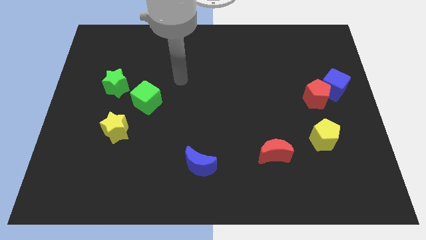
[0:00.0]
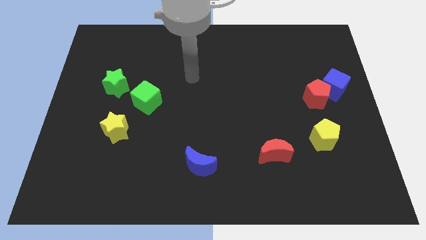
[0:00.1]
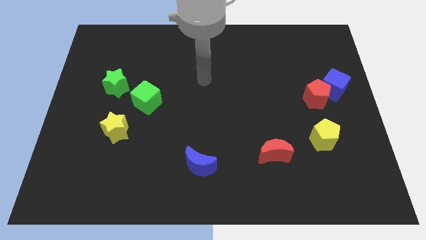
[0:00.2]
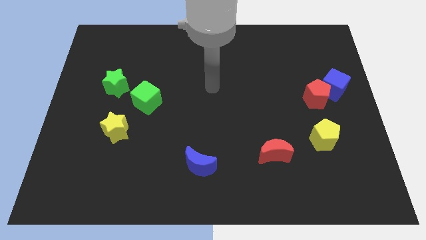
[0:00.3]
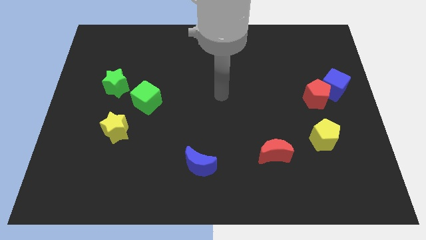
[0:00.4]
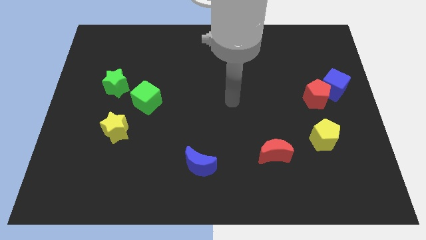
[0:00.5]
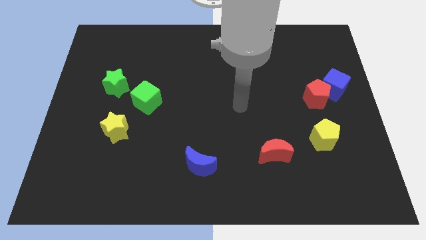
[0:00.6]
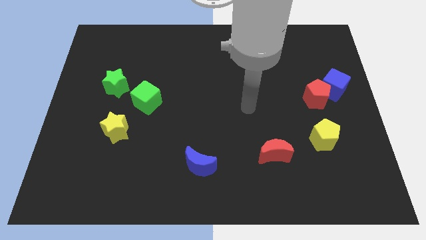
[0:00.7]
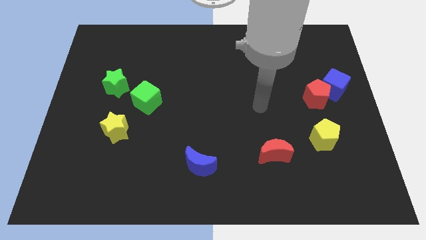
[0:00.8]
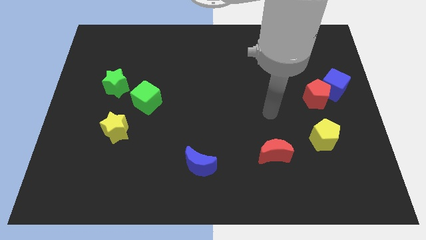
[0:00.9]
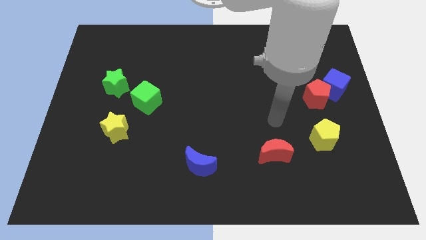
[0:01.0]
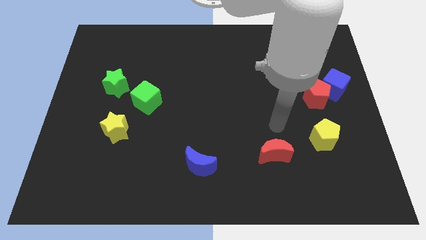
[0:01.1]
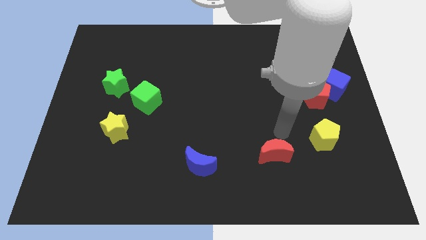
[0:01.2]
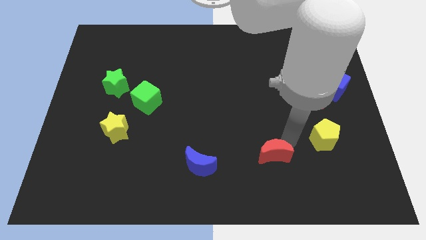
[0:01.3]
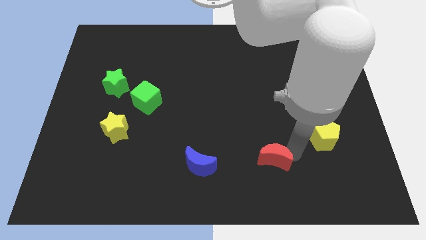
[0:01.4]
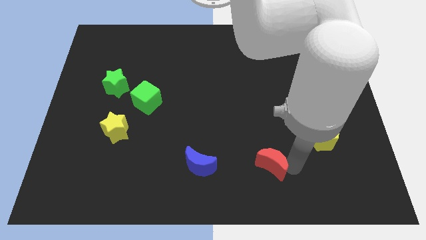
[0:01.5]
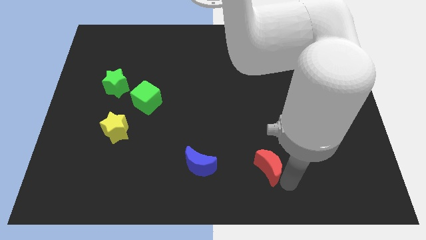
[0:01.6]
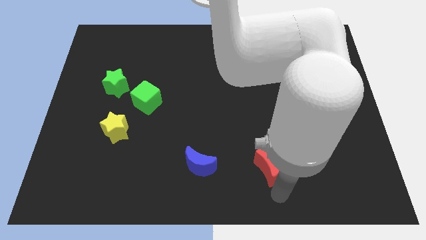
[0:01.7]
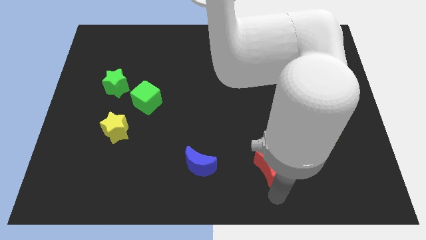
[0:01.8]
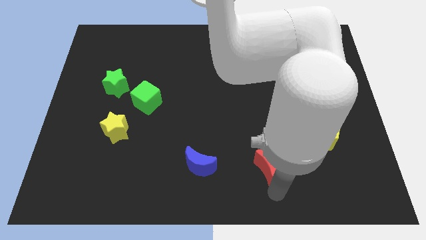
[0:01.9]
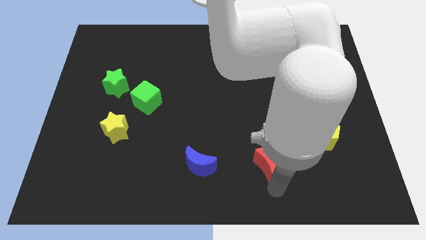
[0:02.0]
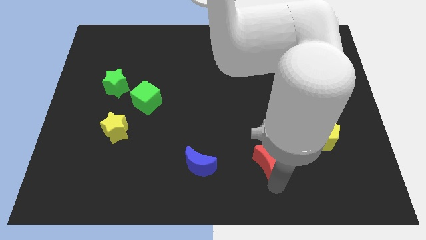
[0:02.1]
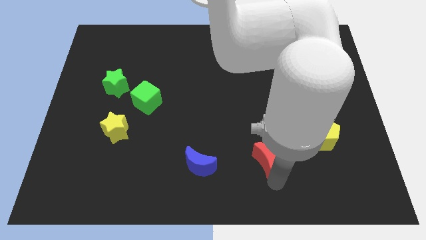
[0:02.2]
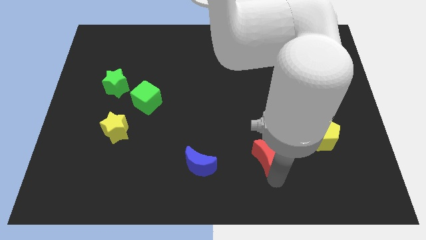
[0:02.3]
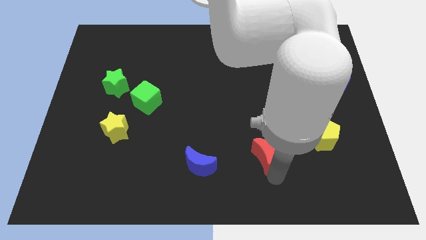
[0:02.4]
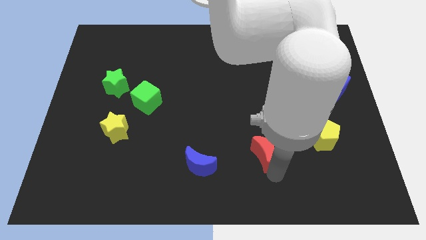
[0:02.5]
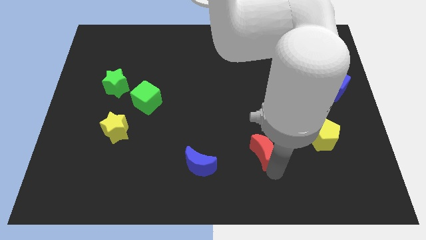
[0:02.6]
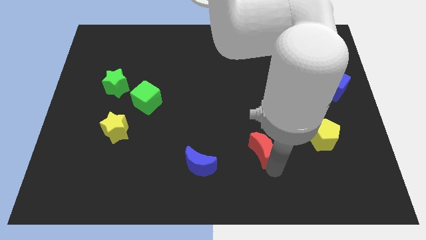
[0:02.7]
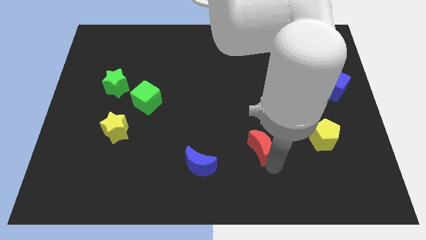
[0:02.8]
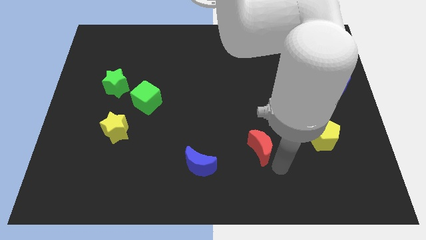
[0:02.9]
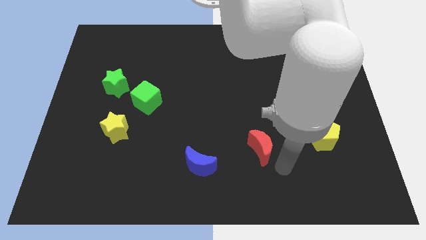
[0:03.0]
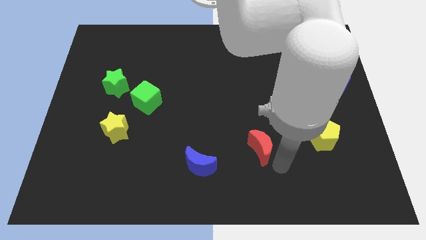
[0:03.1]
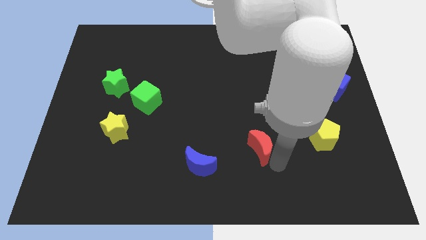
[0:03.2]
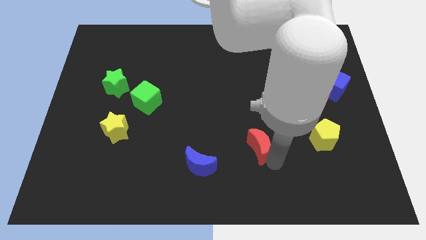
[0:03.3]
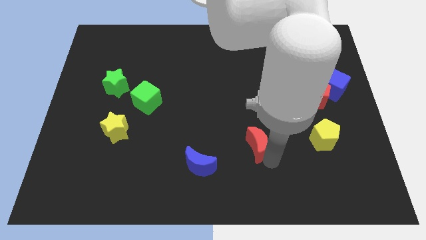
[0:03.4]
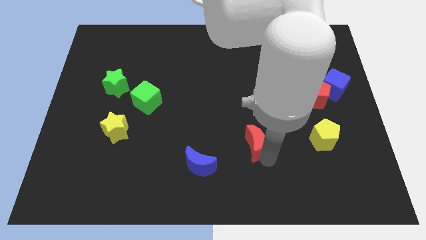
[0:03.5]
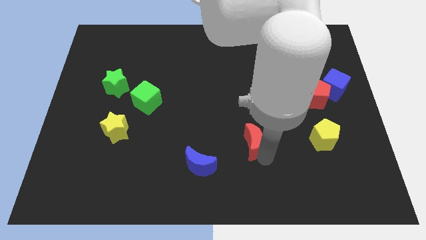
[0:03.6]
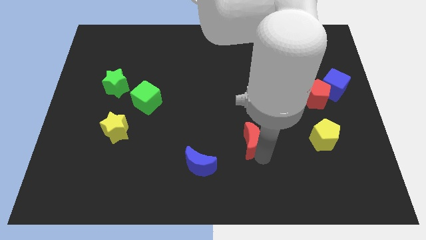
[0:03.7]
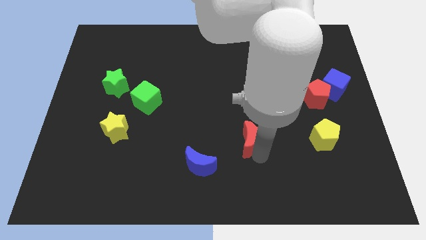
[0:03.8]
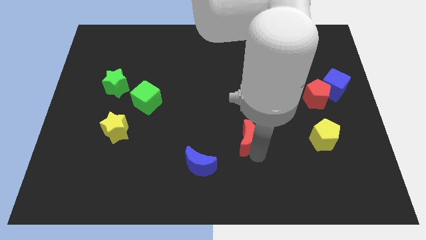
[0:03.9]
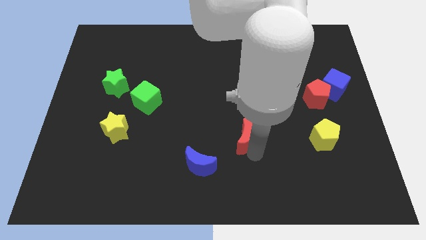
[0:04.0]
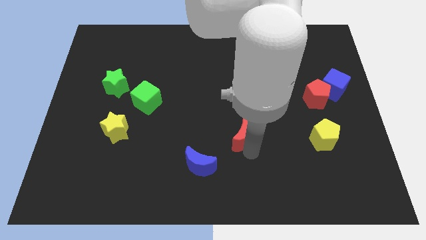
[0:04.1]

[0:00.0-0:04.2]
slide the red moon upwards and to the left diagonally a bit

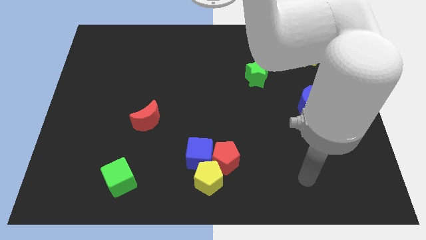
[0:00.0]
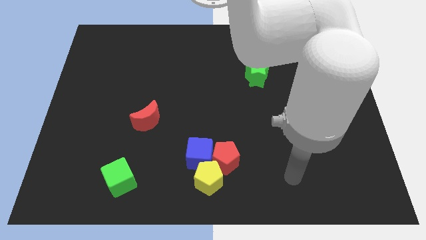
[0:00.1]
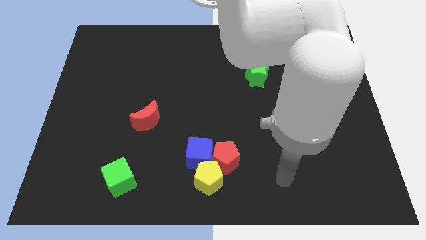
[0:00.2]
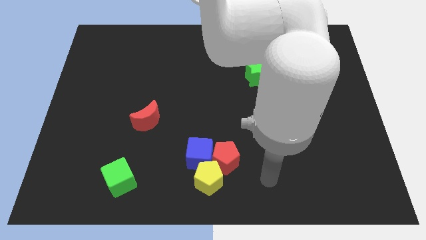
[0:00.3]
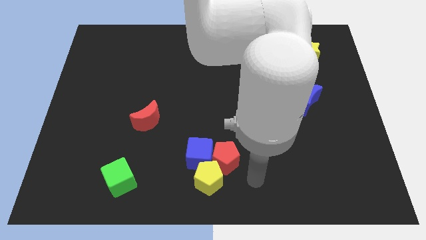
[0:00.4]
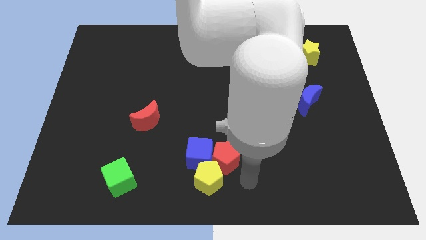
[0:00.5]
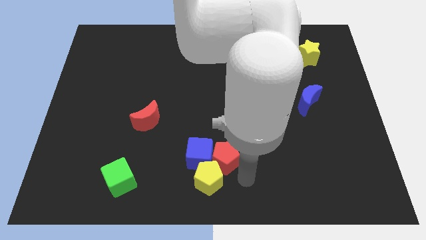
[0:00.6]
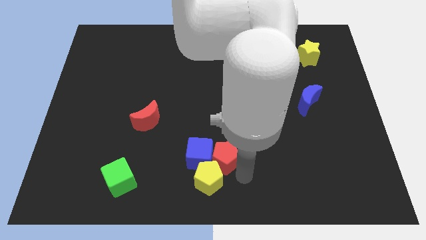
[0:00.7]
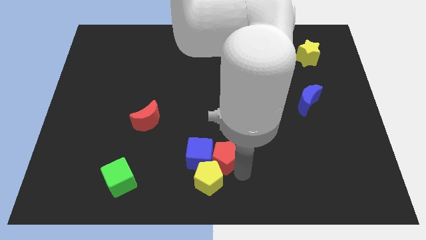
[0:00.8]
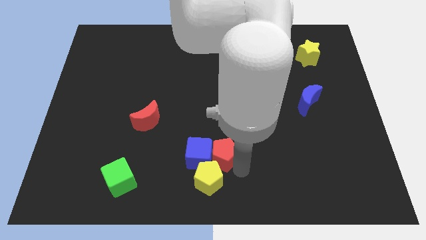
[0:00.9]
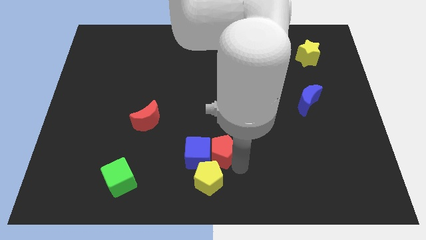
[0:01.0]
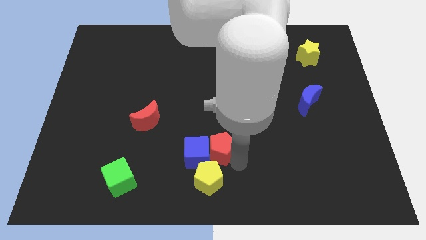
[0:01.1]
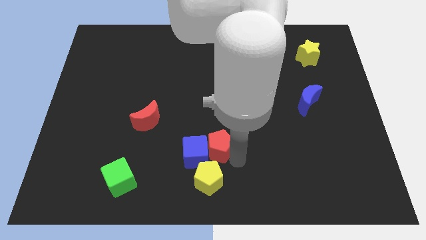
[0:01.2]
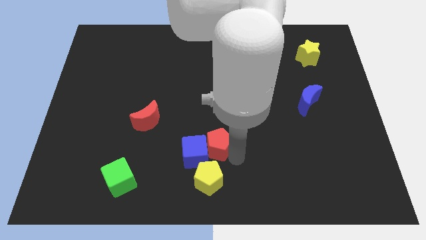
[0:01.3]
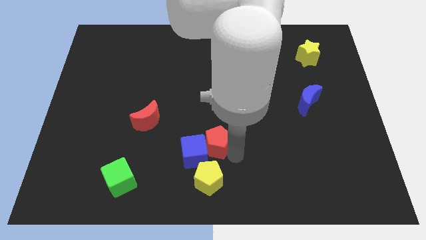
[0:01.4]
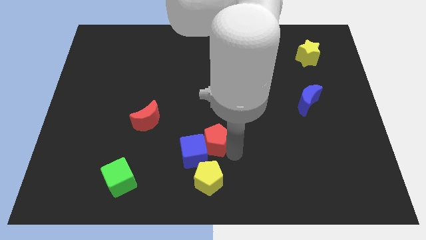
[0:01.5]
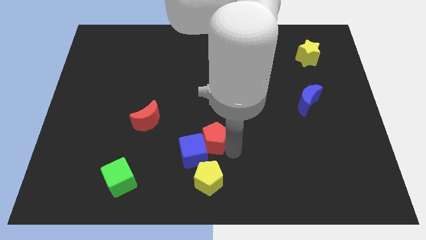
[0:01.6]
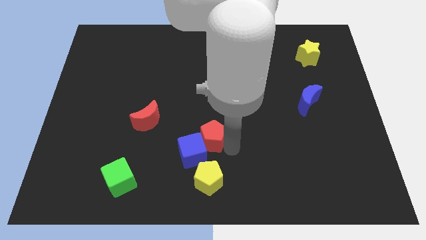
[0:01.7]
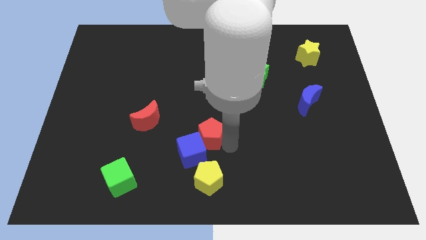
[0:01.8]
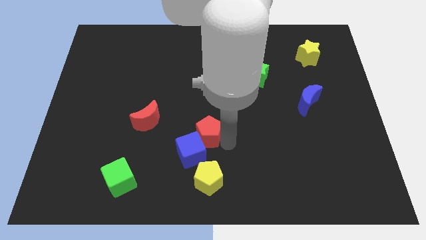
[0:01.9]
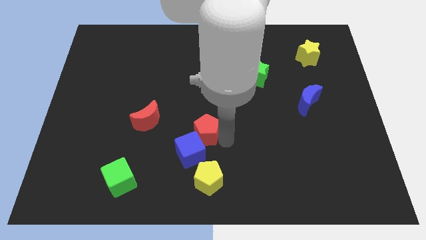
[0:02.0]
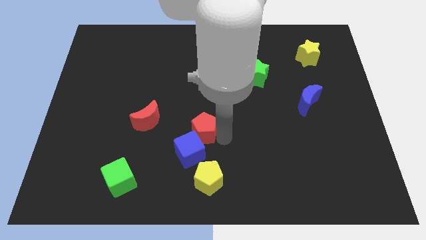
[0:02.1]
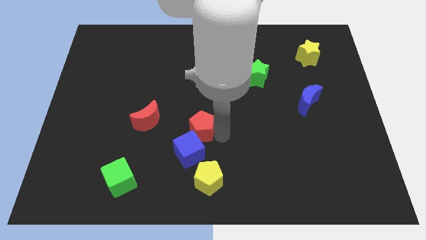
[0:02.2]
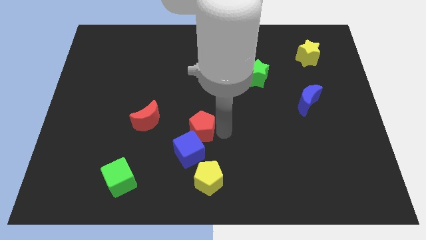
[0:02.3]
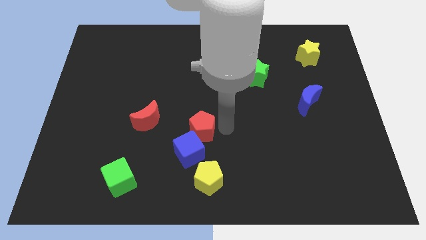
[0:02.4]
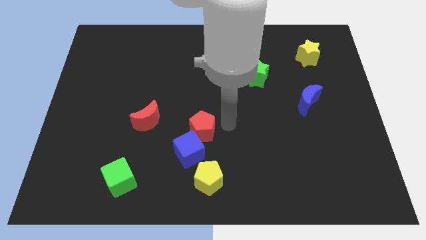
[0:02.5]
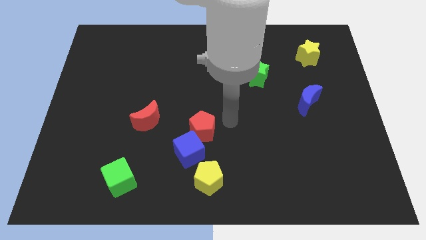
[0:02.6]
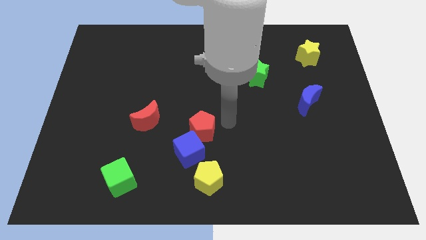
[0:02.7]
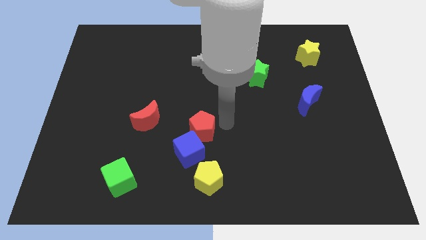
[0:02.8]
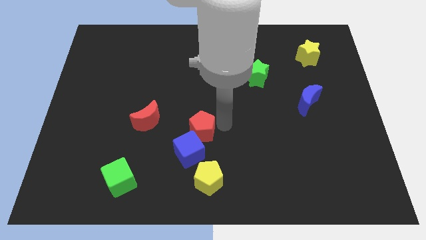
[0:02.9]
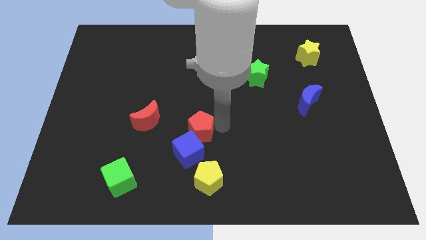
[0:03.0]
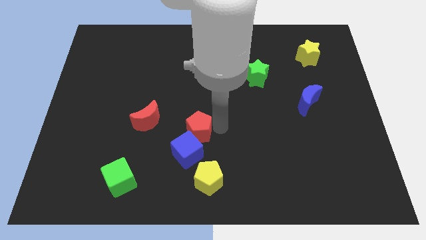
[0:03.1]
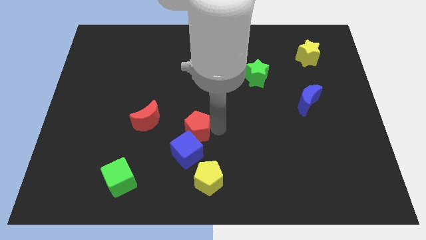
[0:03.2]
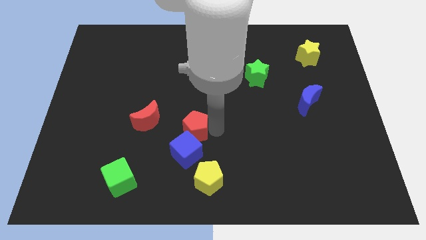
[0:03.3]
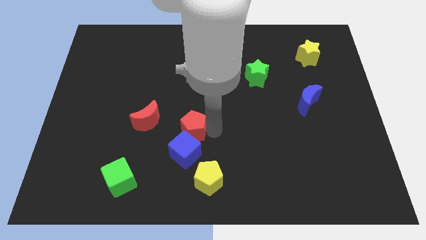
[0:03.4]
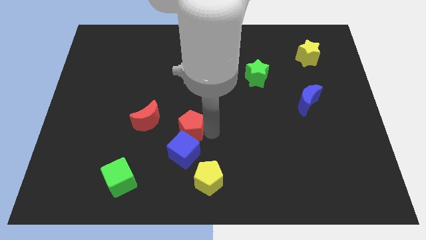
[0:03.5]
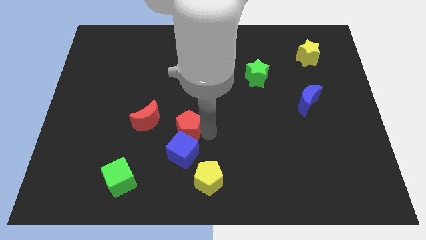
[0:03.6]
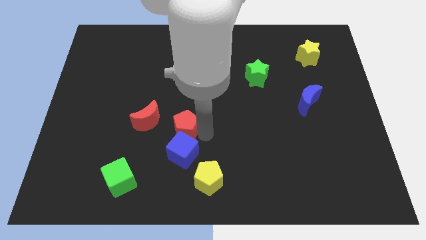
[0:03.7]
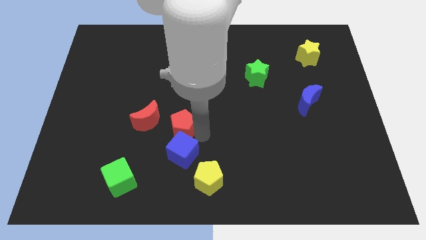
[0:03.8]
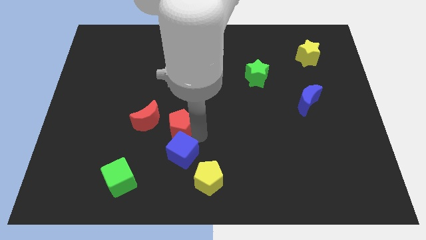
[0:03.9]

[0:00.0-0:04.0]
slightly move the red pentagon left

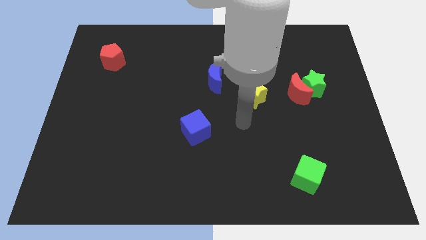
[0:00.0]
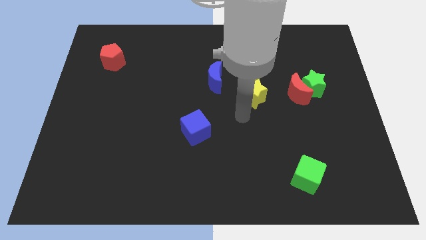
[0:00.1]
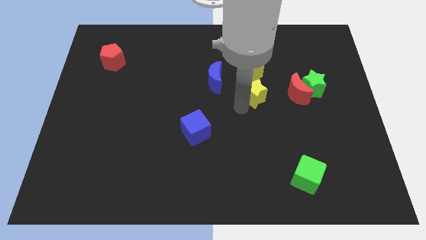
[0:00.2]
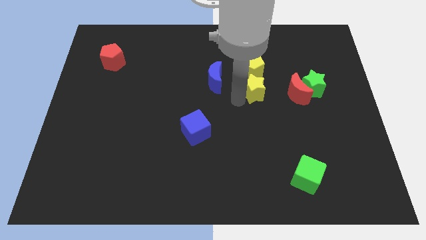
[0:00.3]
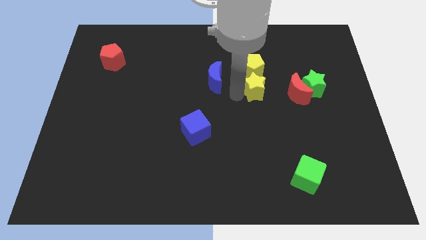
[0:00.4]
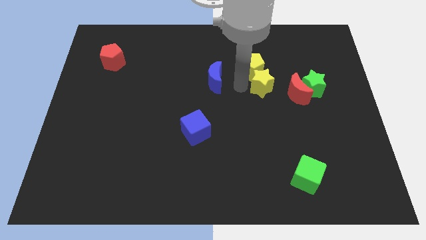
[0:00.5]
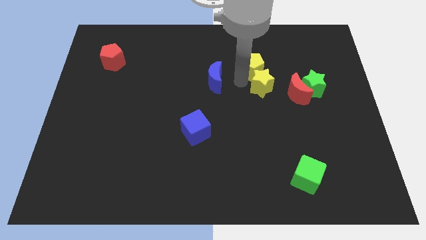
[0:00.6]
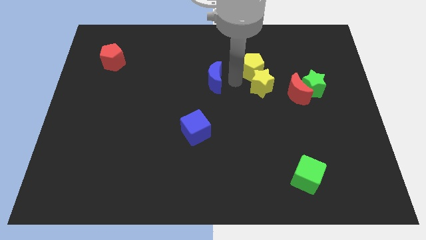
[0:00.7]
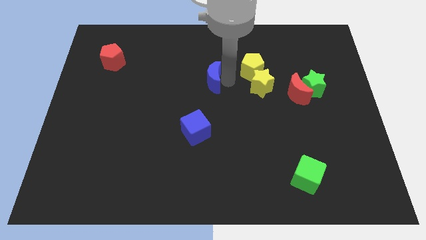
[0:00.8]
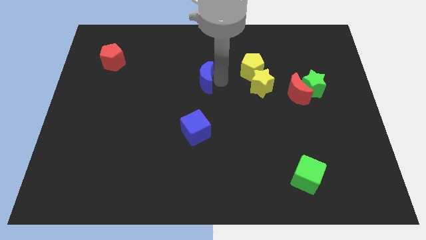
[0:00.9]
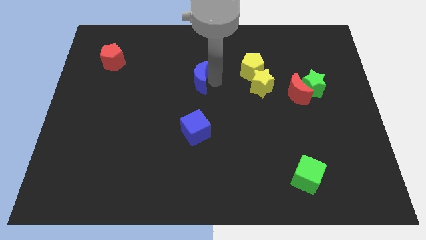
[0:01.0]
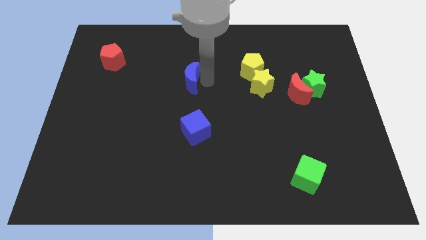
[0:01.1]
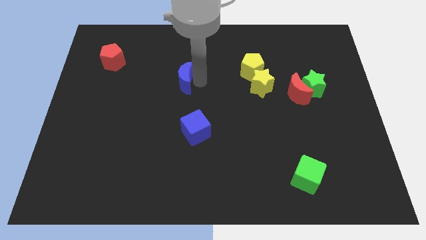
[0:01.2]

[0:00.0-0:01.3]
move the blue moon a bit to the left
